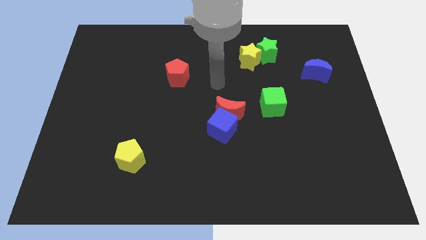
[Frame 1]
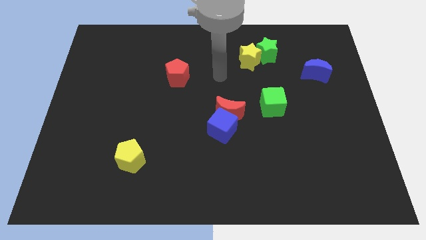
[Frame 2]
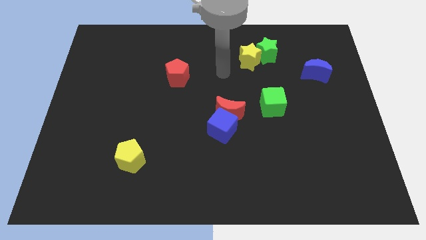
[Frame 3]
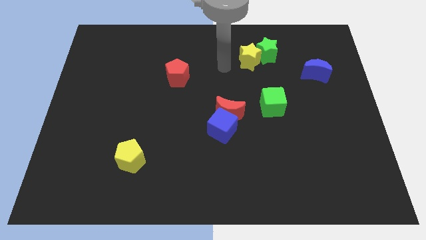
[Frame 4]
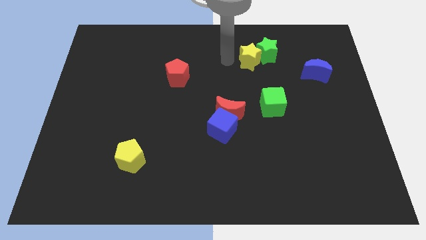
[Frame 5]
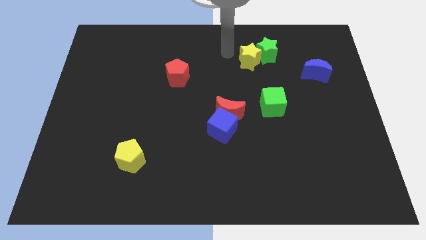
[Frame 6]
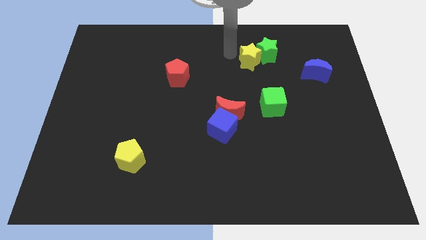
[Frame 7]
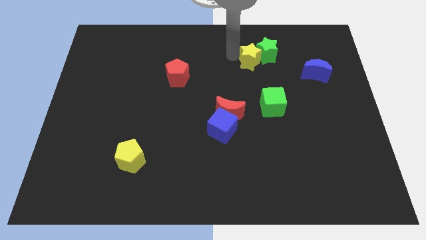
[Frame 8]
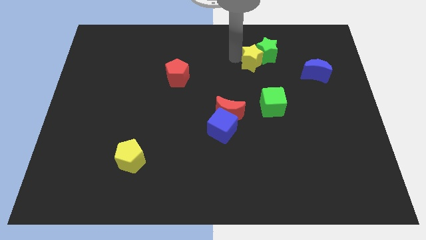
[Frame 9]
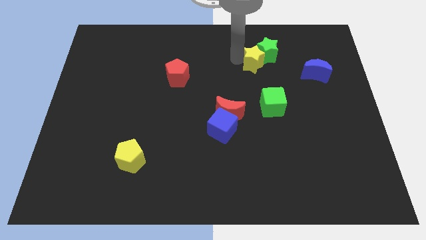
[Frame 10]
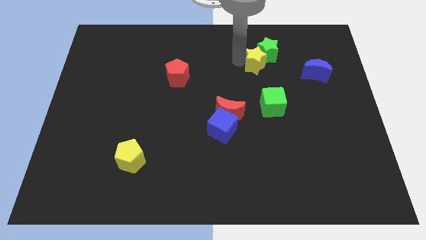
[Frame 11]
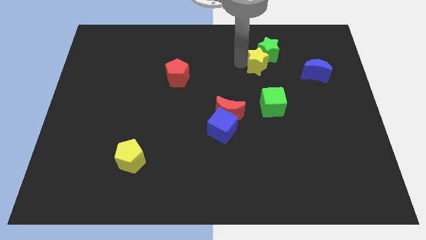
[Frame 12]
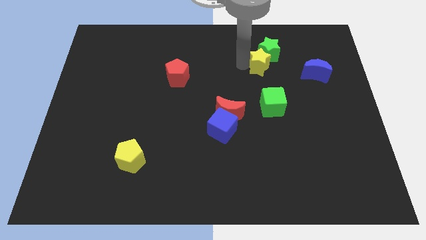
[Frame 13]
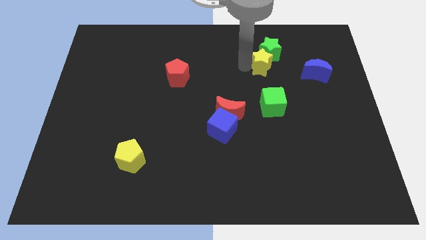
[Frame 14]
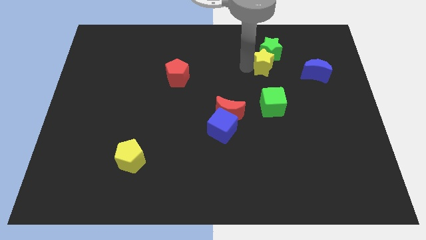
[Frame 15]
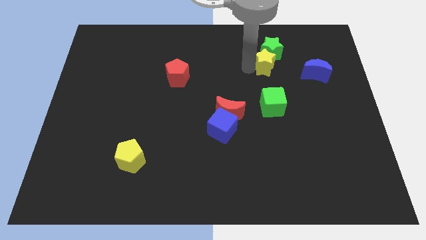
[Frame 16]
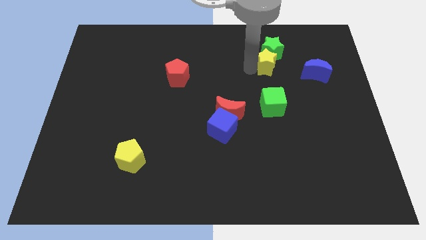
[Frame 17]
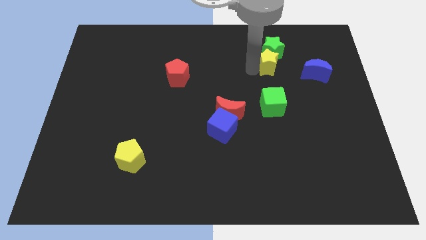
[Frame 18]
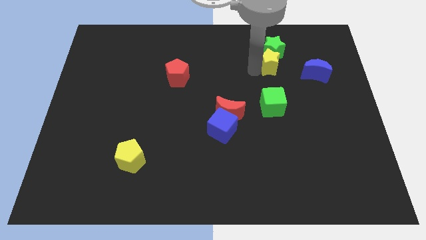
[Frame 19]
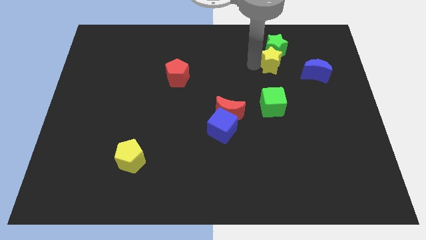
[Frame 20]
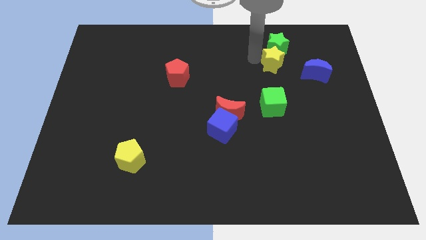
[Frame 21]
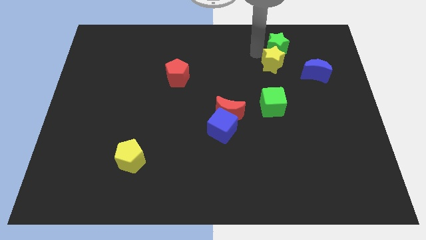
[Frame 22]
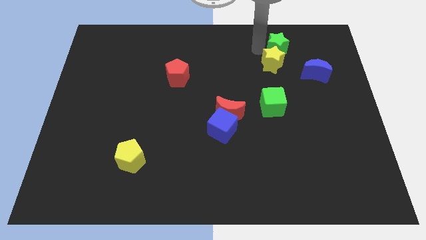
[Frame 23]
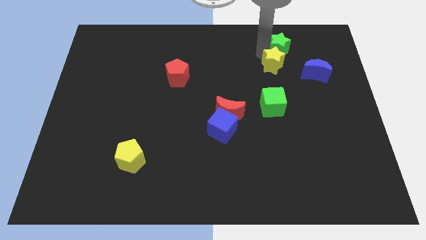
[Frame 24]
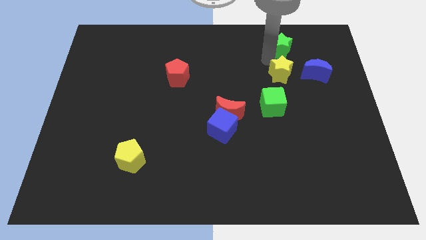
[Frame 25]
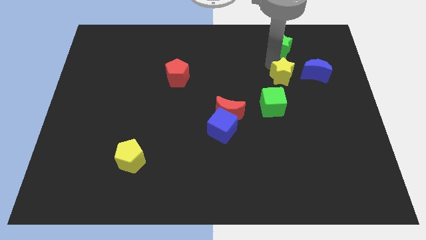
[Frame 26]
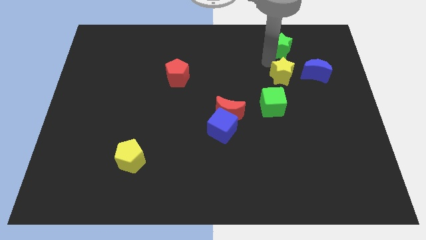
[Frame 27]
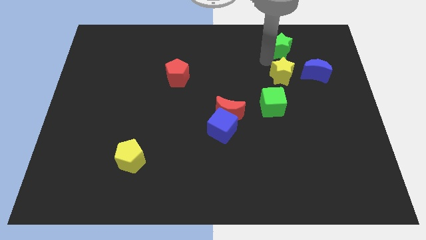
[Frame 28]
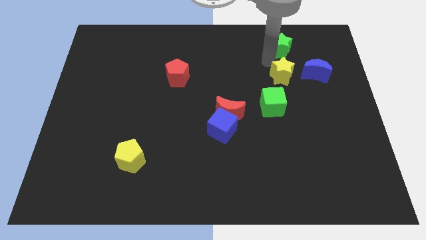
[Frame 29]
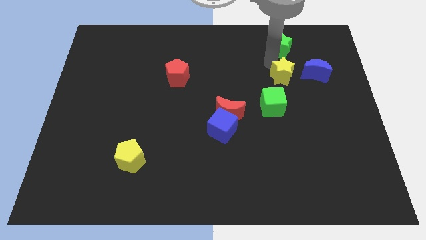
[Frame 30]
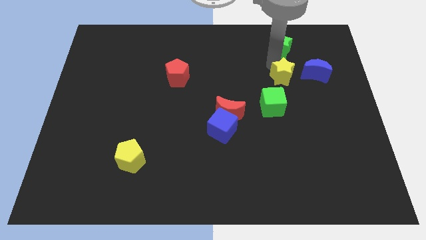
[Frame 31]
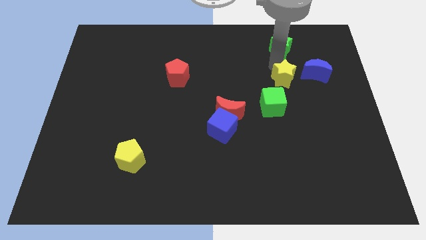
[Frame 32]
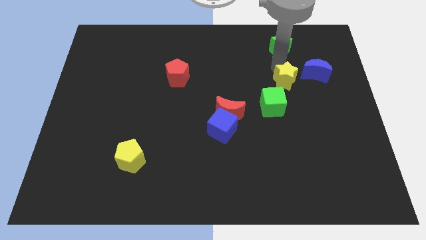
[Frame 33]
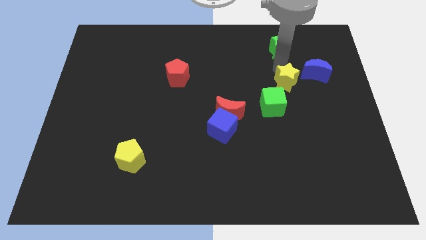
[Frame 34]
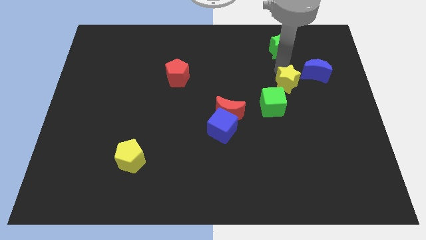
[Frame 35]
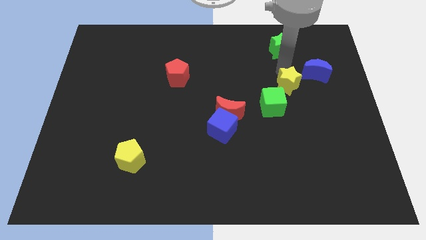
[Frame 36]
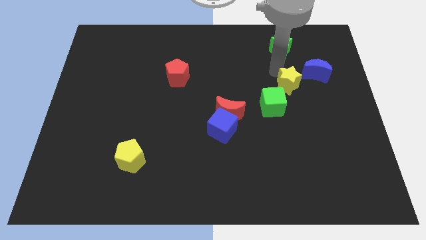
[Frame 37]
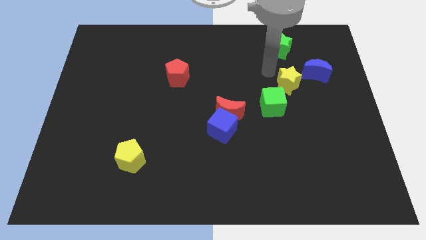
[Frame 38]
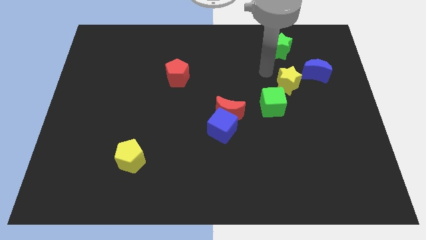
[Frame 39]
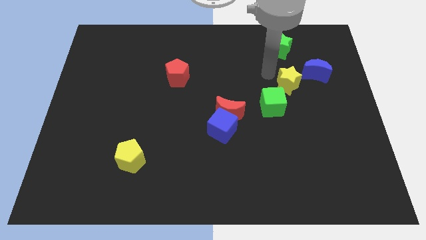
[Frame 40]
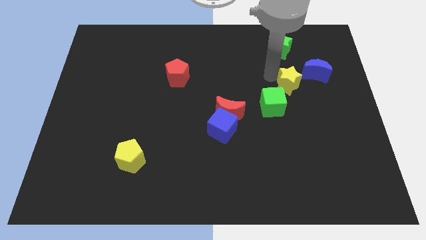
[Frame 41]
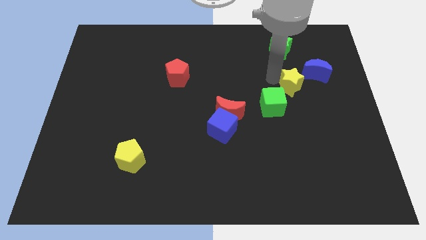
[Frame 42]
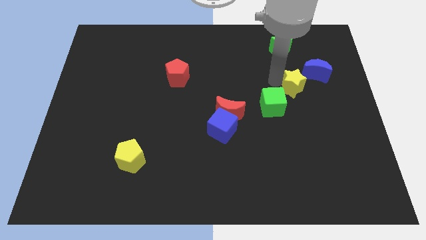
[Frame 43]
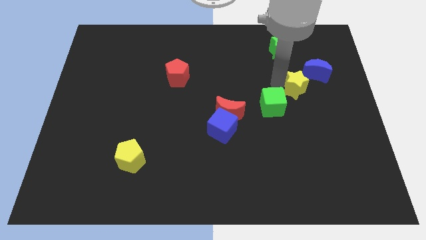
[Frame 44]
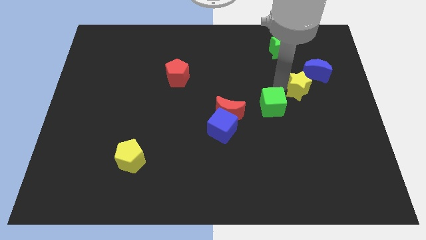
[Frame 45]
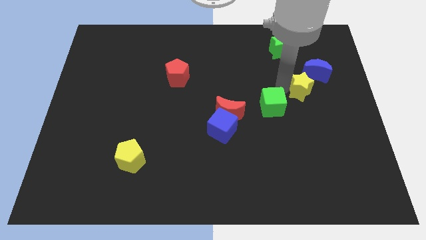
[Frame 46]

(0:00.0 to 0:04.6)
move the yellow star to the bottom of the blue moon

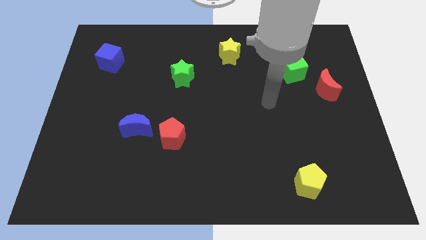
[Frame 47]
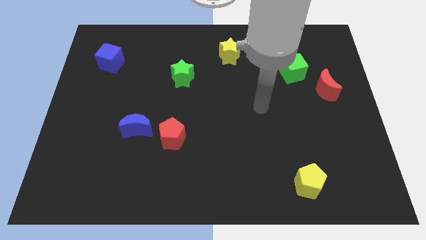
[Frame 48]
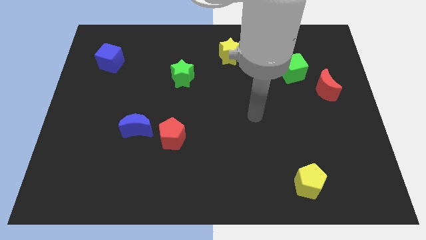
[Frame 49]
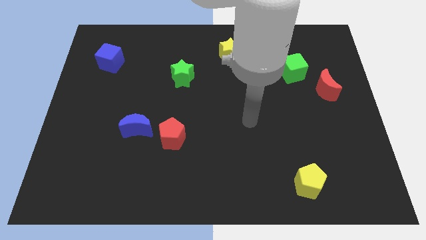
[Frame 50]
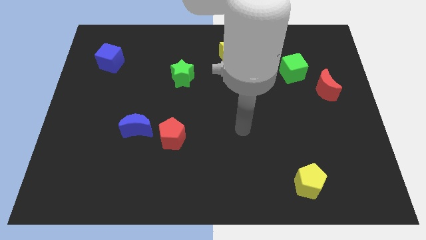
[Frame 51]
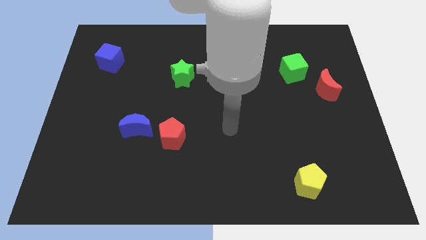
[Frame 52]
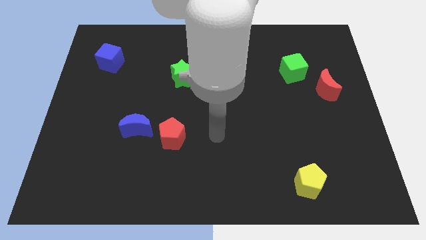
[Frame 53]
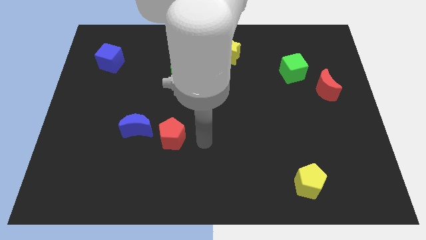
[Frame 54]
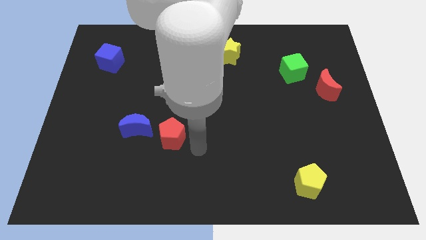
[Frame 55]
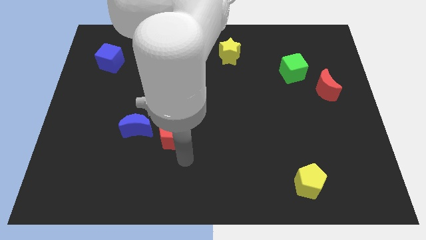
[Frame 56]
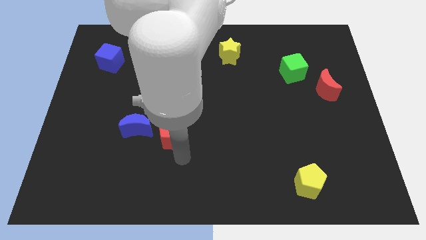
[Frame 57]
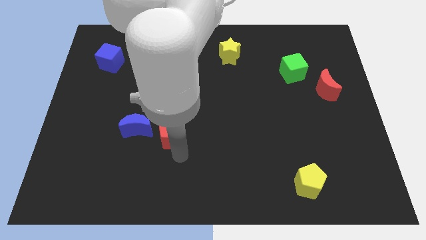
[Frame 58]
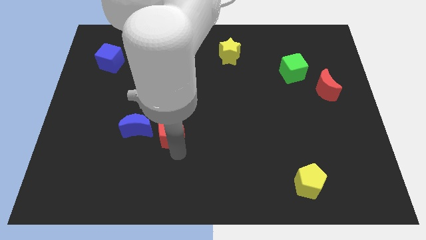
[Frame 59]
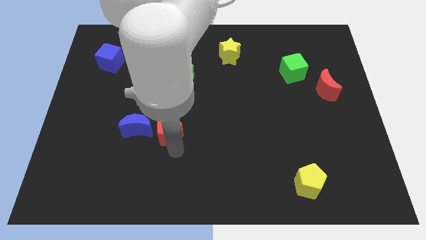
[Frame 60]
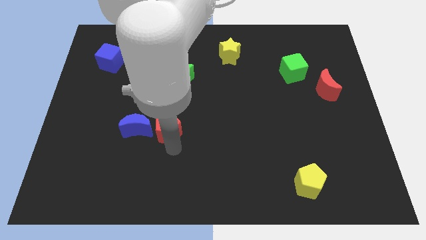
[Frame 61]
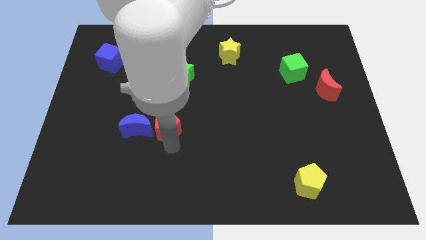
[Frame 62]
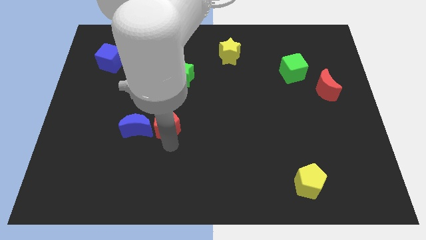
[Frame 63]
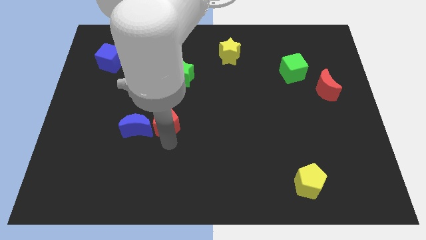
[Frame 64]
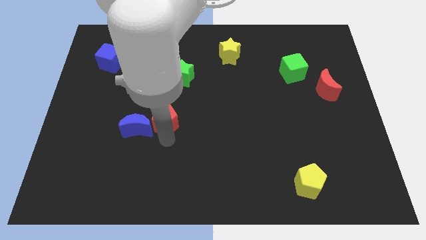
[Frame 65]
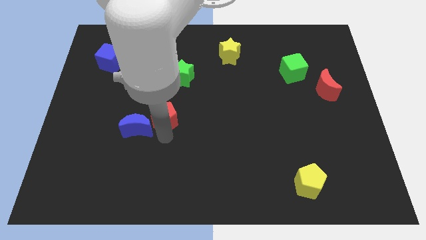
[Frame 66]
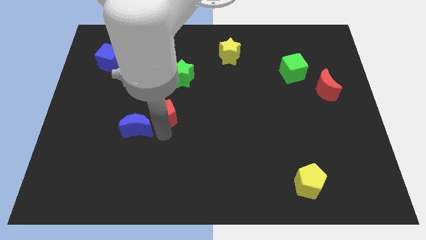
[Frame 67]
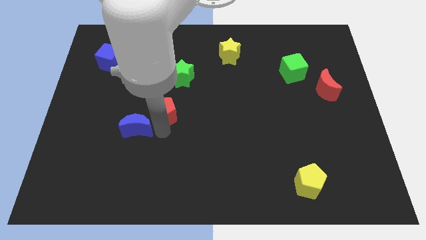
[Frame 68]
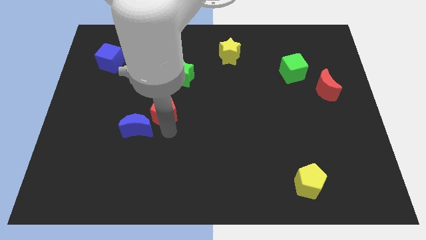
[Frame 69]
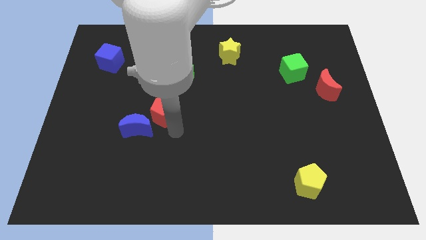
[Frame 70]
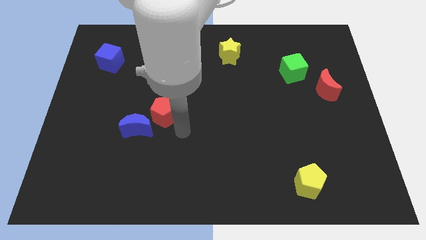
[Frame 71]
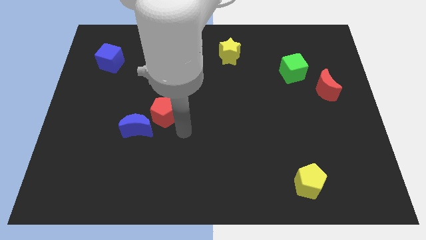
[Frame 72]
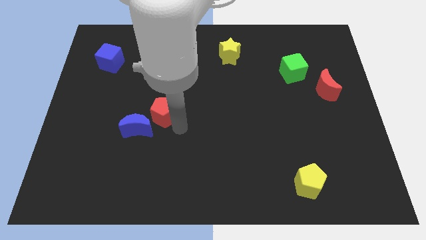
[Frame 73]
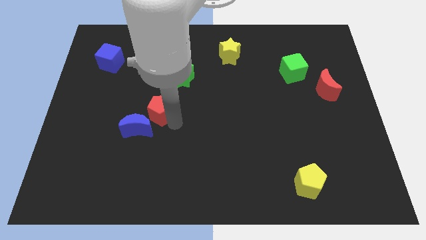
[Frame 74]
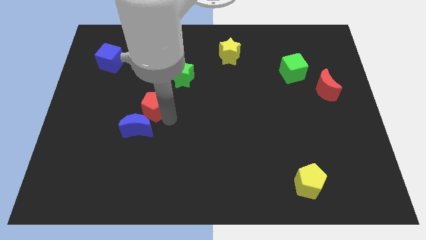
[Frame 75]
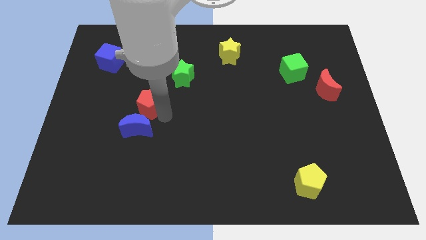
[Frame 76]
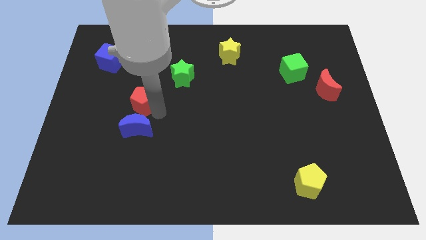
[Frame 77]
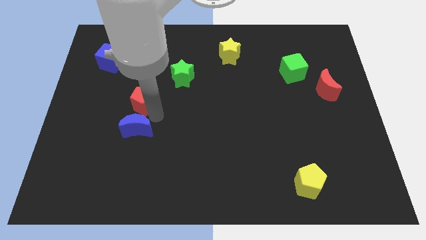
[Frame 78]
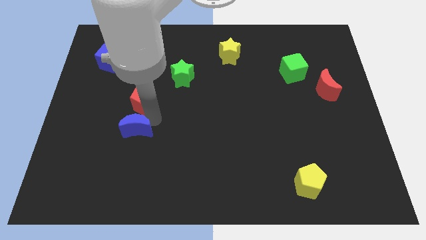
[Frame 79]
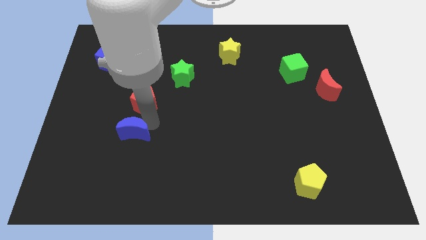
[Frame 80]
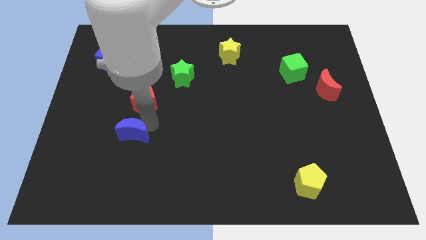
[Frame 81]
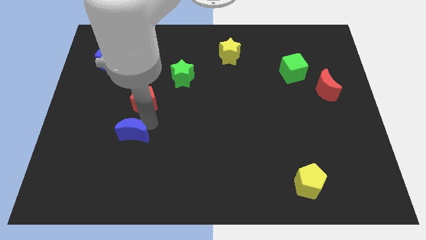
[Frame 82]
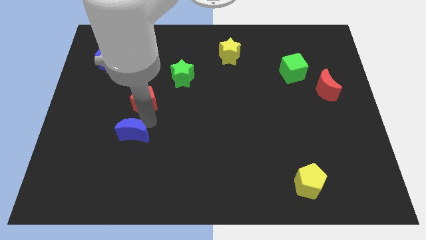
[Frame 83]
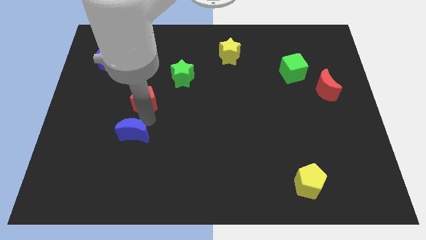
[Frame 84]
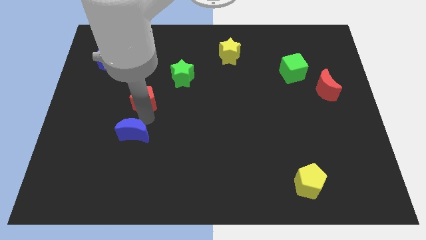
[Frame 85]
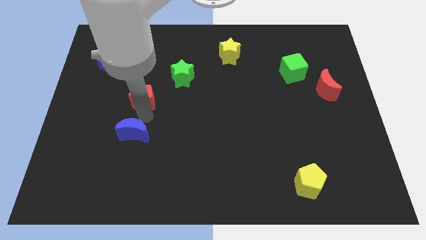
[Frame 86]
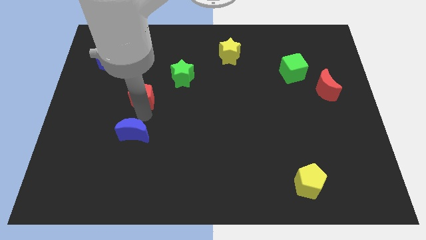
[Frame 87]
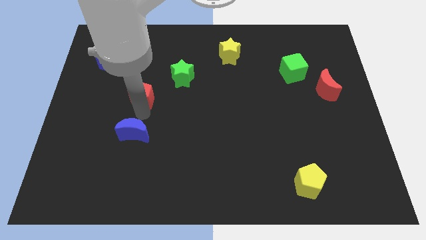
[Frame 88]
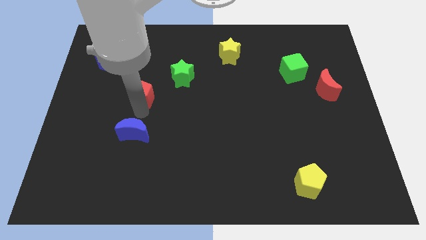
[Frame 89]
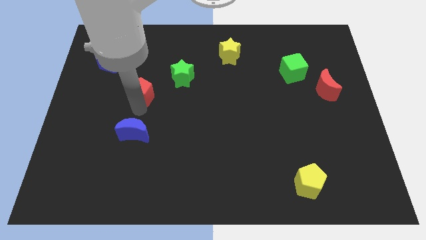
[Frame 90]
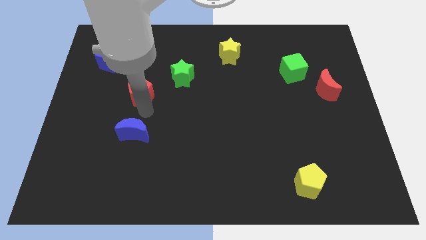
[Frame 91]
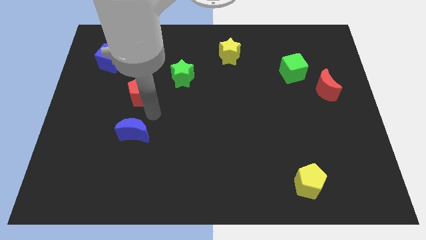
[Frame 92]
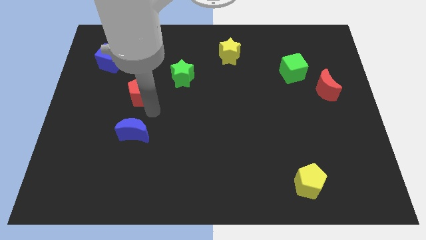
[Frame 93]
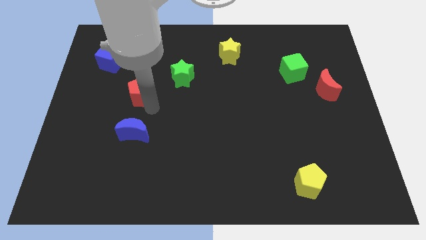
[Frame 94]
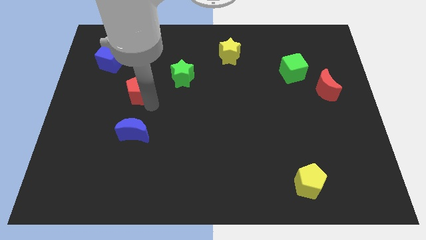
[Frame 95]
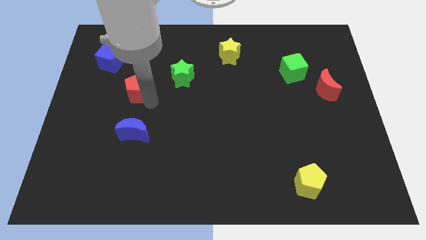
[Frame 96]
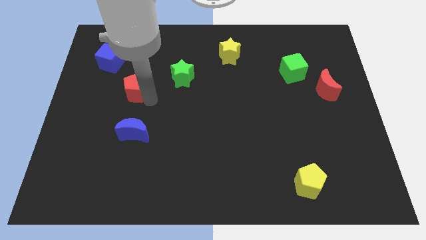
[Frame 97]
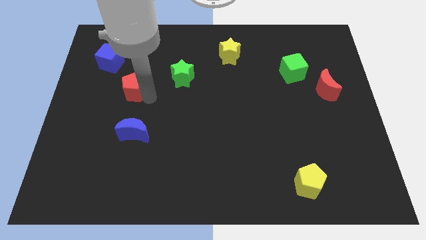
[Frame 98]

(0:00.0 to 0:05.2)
push the red pentagon to the bottom right of the blue cube
